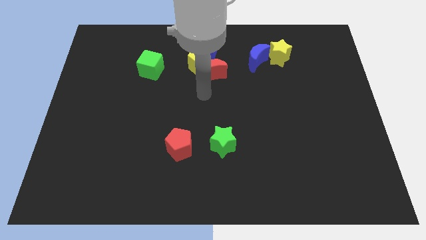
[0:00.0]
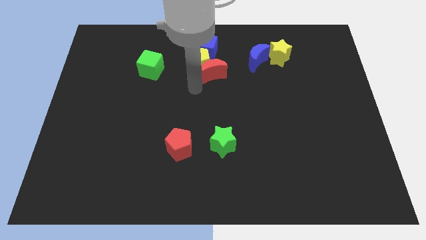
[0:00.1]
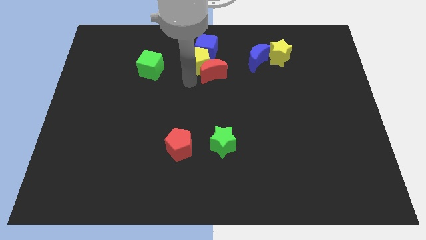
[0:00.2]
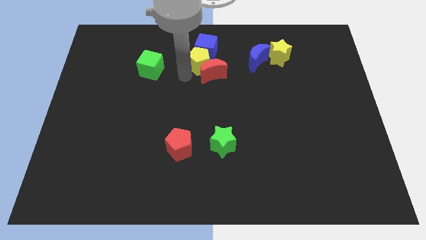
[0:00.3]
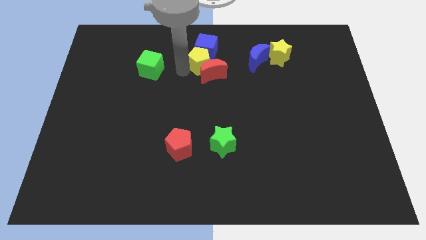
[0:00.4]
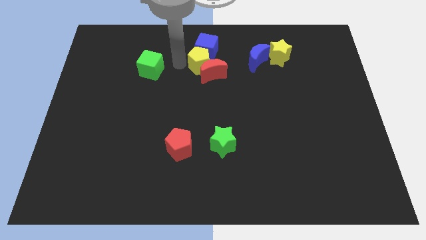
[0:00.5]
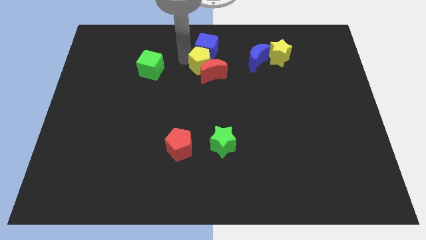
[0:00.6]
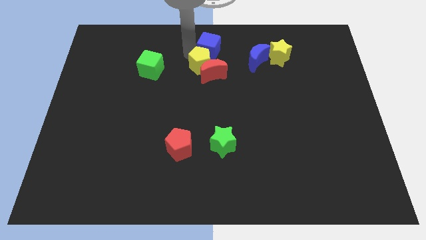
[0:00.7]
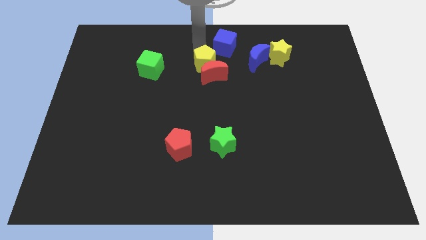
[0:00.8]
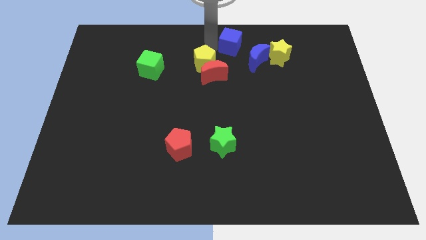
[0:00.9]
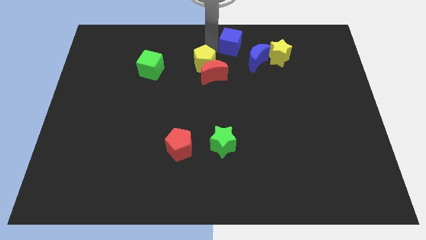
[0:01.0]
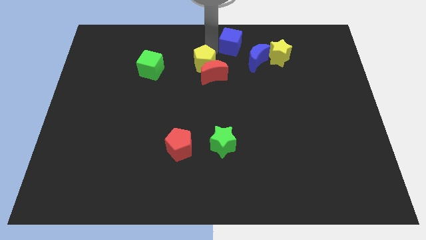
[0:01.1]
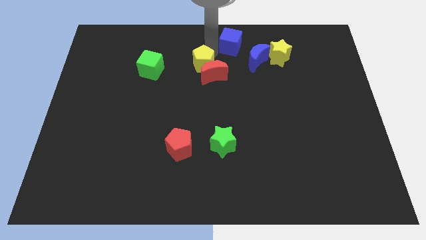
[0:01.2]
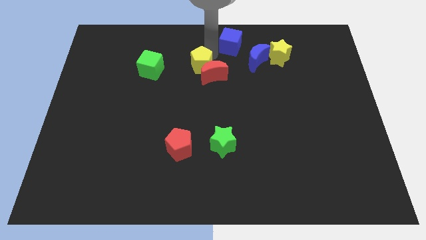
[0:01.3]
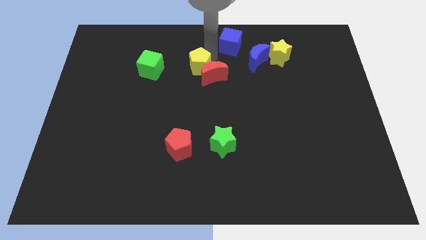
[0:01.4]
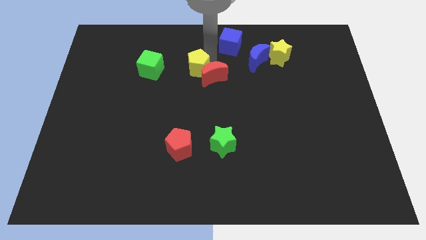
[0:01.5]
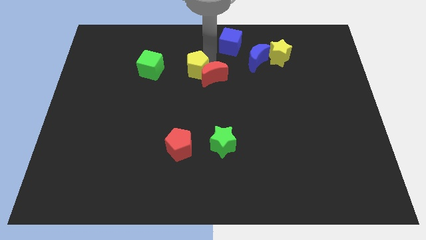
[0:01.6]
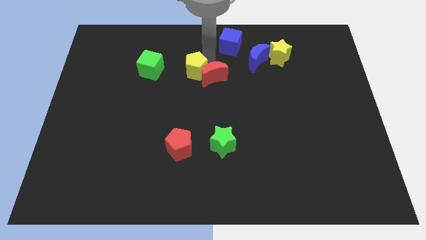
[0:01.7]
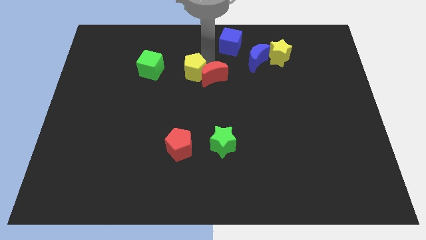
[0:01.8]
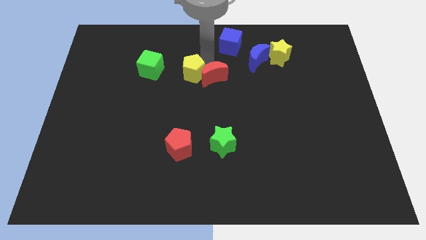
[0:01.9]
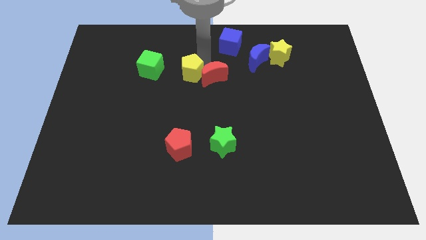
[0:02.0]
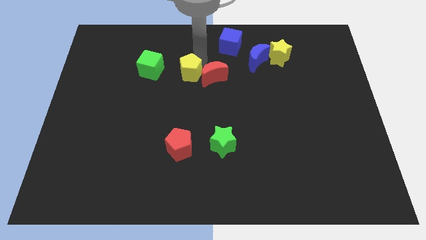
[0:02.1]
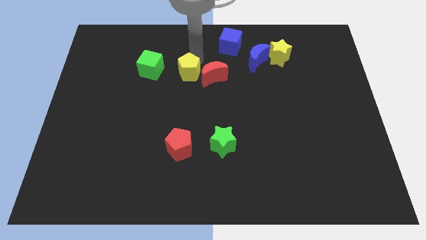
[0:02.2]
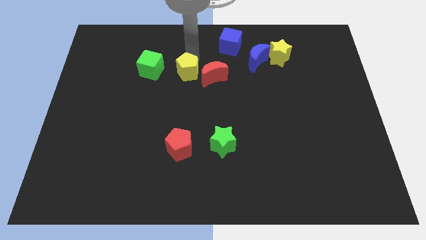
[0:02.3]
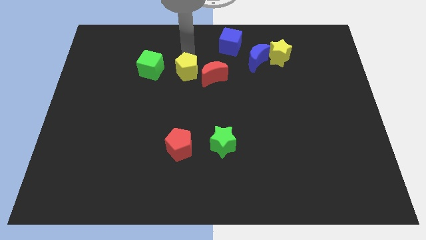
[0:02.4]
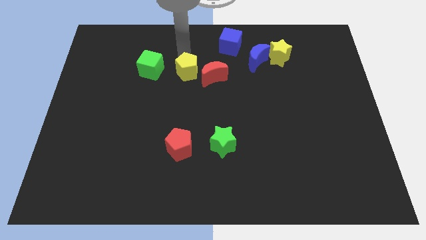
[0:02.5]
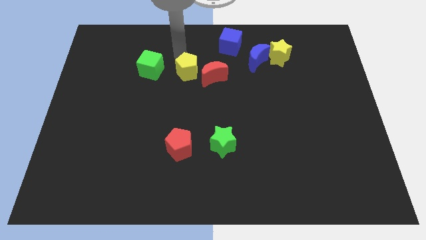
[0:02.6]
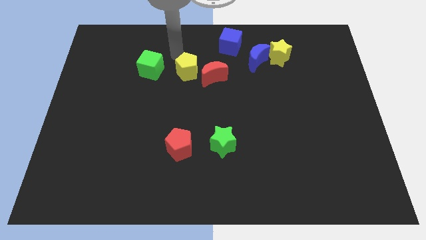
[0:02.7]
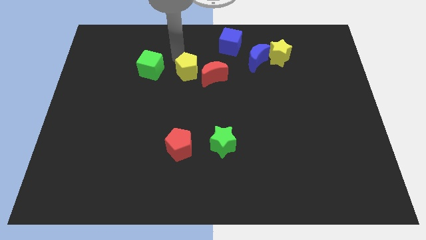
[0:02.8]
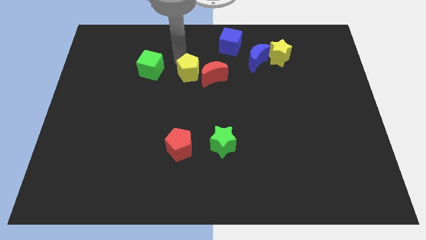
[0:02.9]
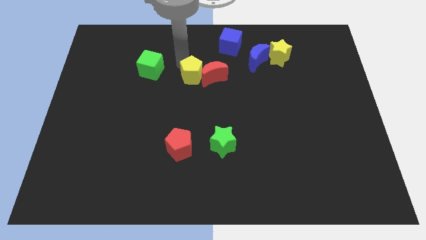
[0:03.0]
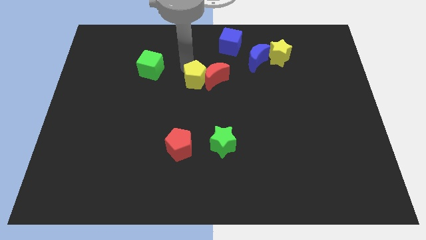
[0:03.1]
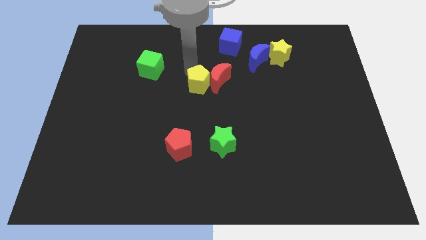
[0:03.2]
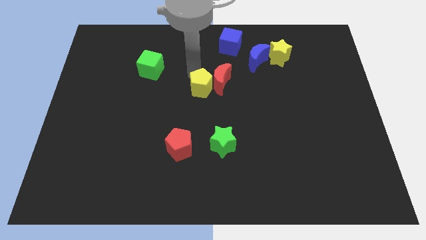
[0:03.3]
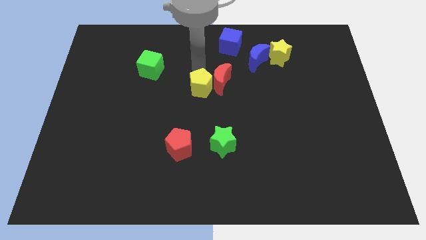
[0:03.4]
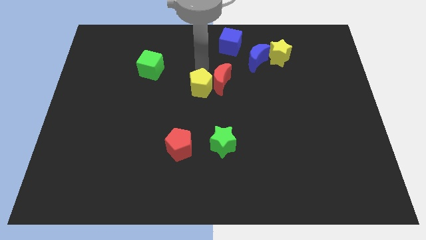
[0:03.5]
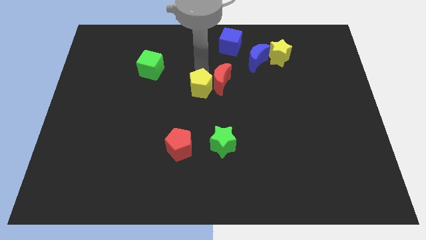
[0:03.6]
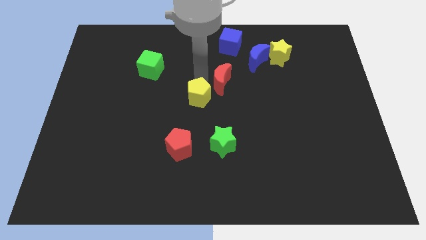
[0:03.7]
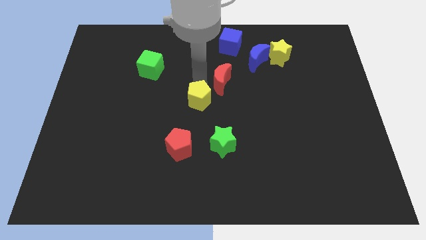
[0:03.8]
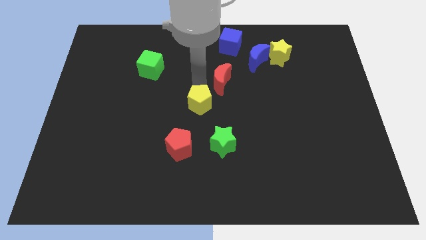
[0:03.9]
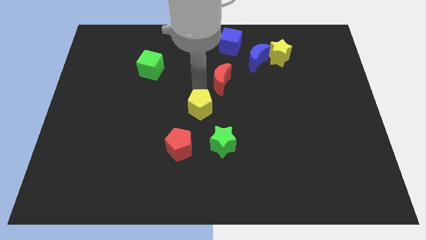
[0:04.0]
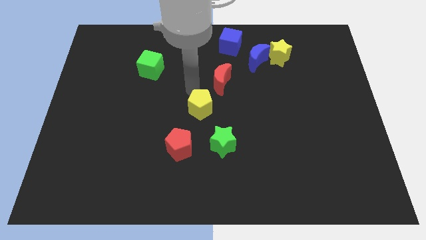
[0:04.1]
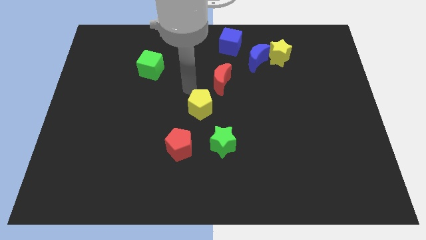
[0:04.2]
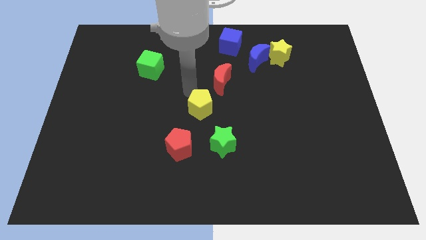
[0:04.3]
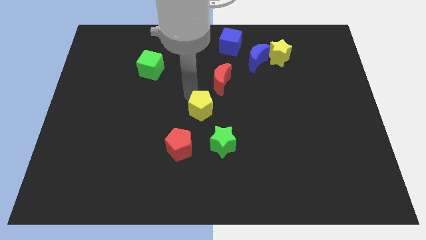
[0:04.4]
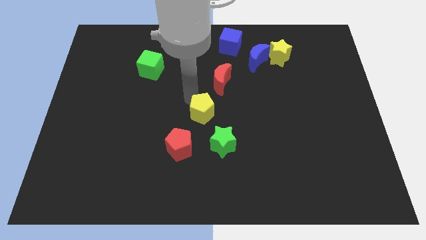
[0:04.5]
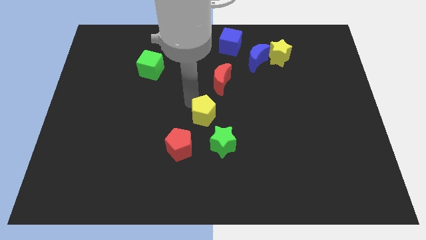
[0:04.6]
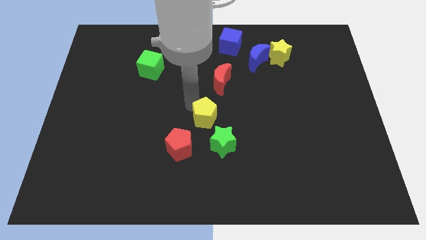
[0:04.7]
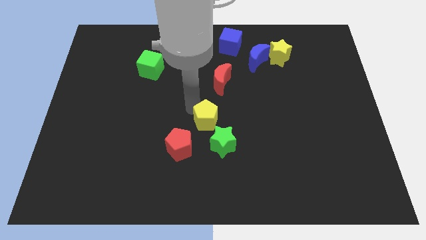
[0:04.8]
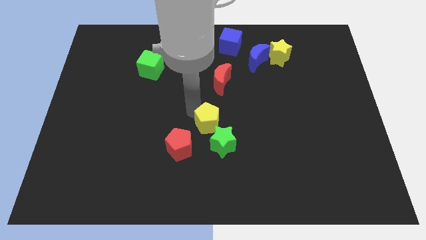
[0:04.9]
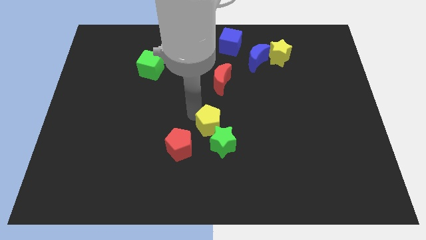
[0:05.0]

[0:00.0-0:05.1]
slide the yellow pentagon next to the green star

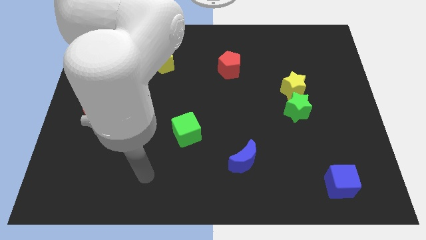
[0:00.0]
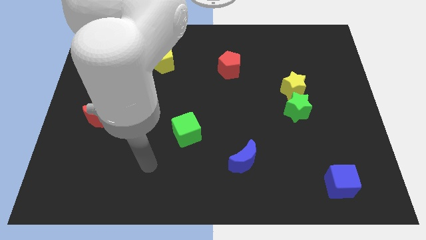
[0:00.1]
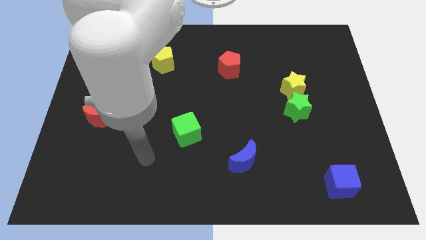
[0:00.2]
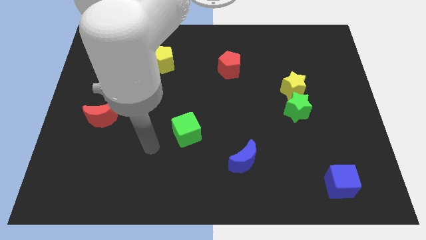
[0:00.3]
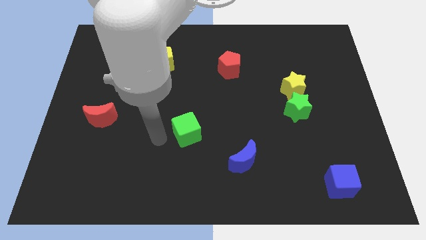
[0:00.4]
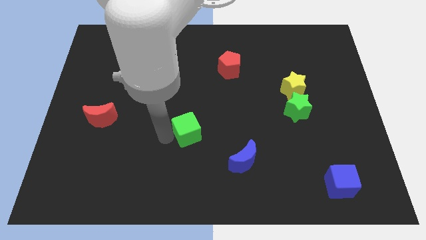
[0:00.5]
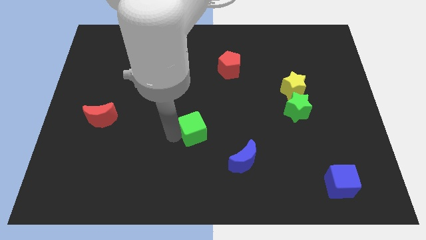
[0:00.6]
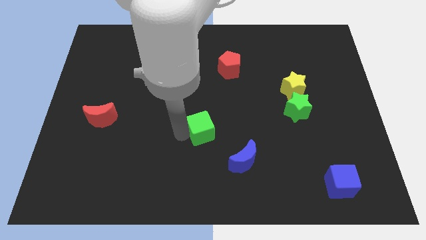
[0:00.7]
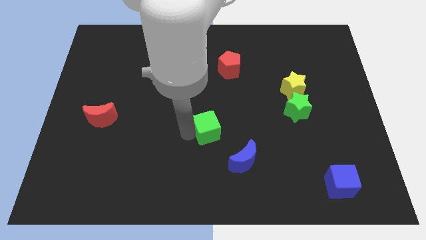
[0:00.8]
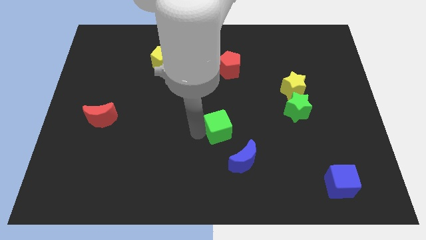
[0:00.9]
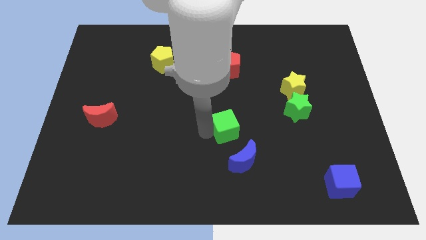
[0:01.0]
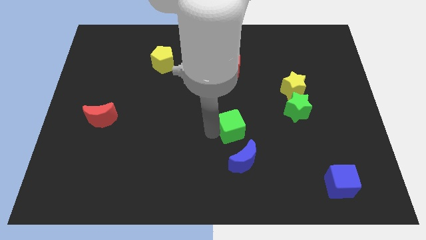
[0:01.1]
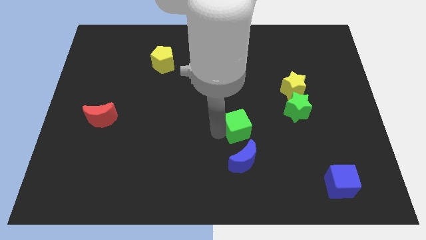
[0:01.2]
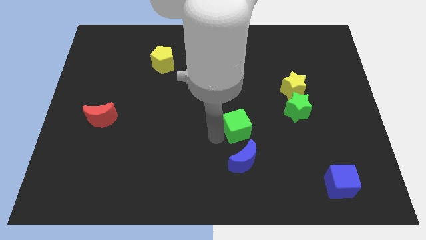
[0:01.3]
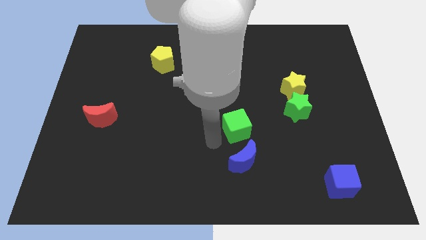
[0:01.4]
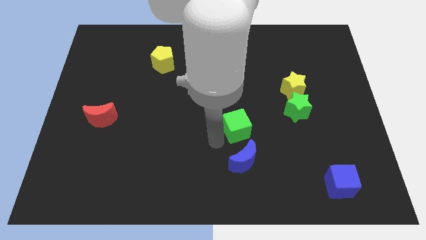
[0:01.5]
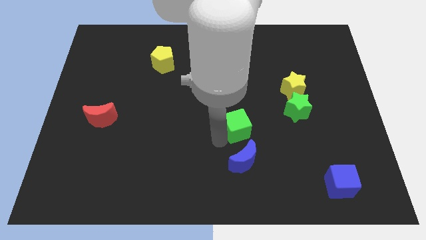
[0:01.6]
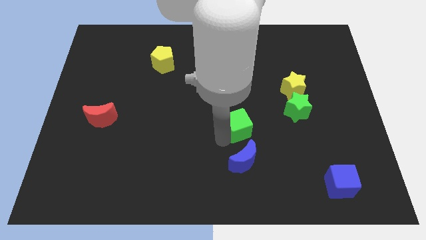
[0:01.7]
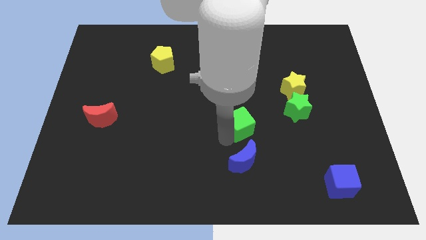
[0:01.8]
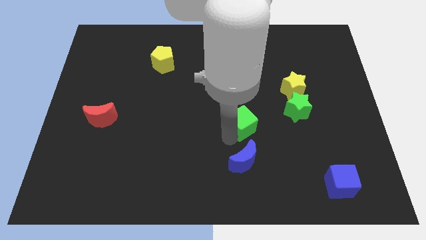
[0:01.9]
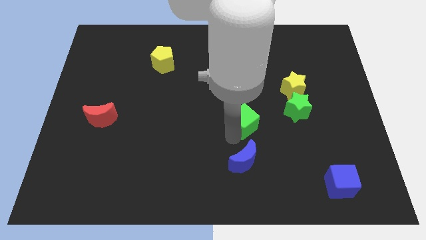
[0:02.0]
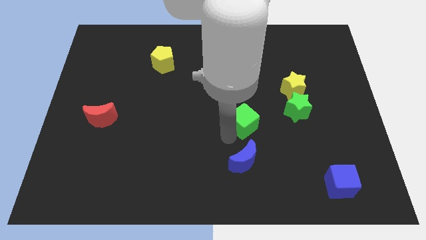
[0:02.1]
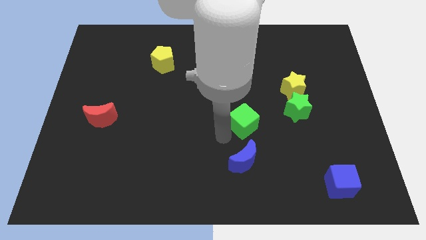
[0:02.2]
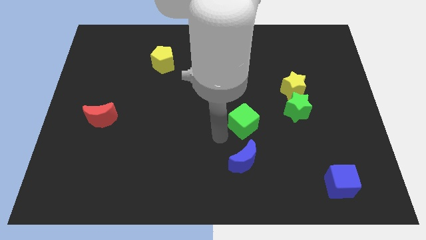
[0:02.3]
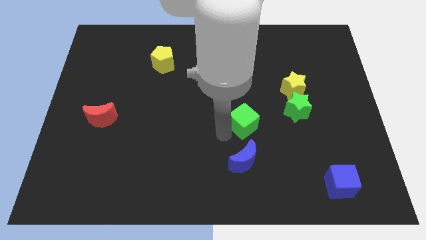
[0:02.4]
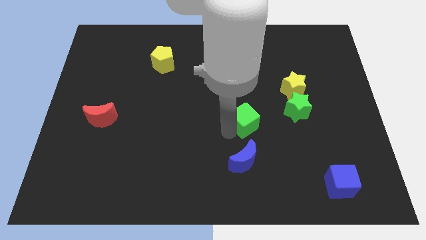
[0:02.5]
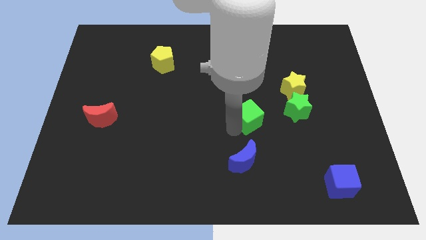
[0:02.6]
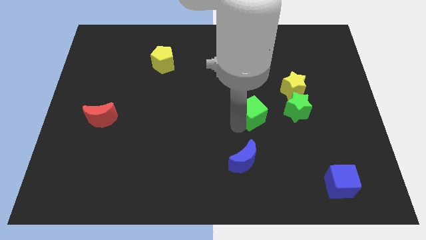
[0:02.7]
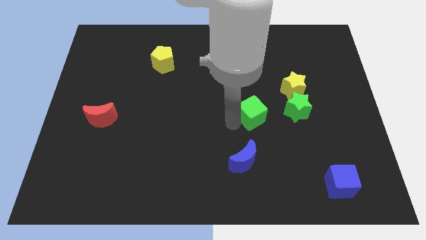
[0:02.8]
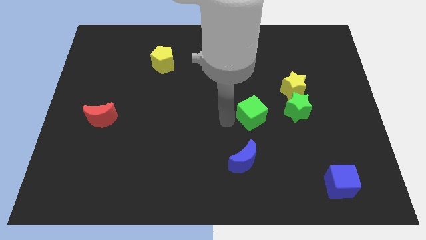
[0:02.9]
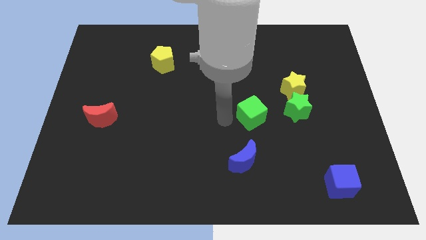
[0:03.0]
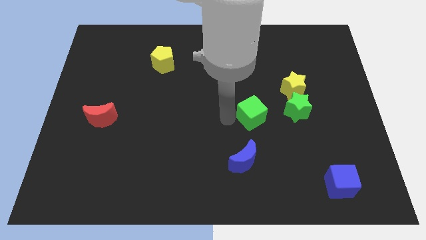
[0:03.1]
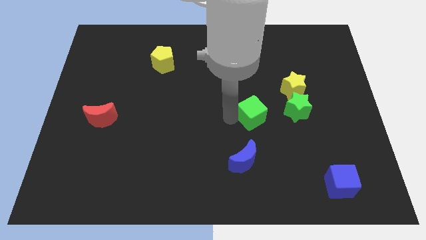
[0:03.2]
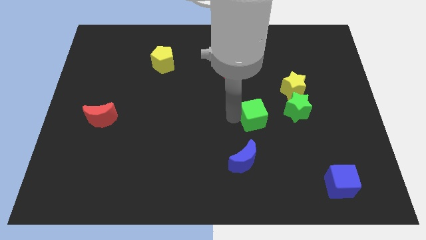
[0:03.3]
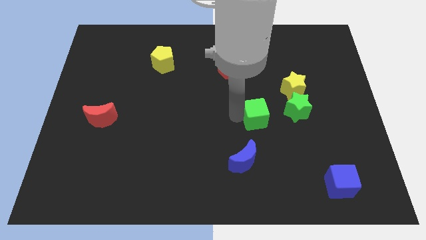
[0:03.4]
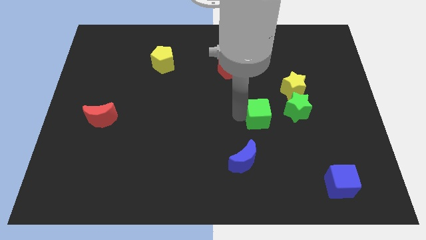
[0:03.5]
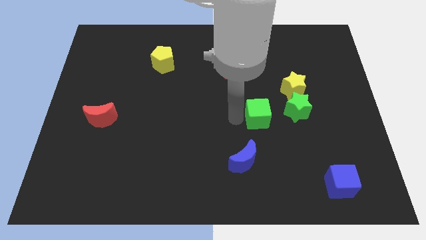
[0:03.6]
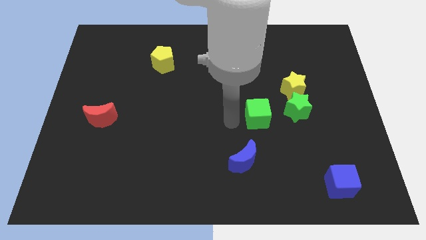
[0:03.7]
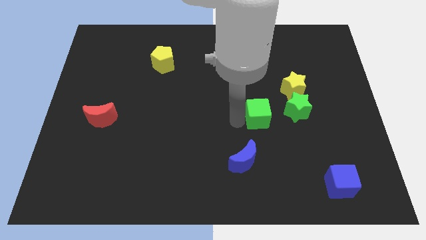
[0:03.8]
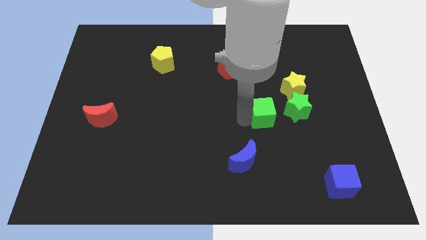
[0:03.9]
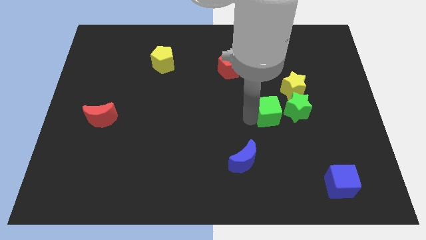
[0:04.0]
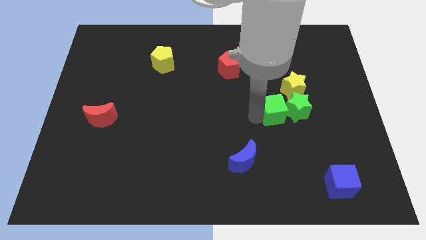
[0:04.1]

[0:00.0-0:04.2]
put the green cube to the green star
